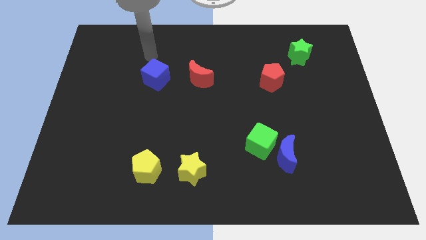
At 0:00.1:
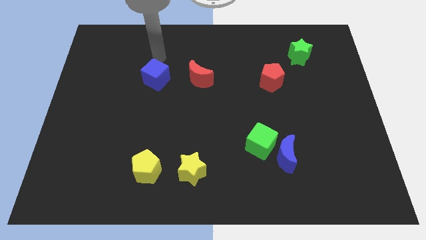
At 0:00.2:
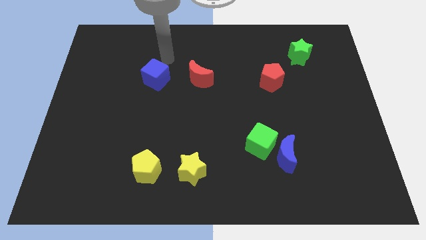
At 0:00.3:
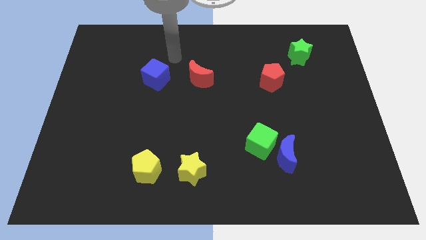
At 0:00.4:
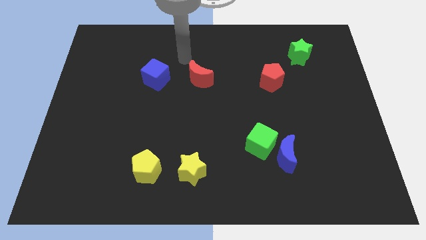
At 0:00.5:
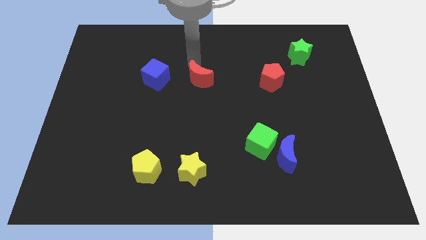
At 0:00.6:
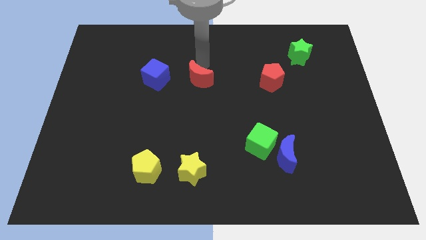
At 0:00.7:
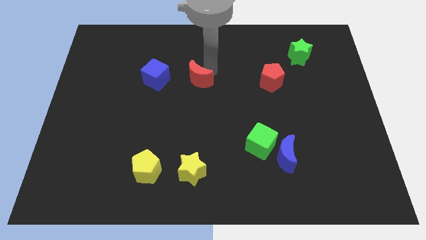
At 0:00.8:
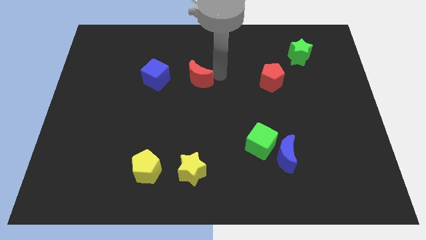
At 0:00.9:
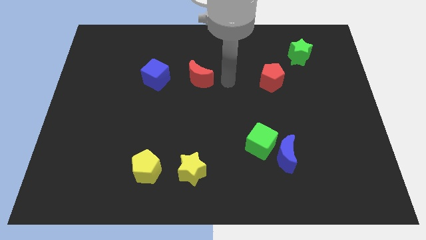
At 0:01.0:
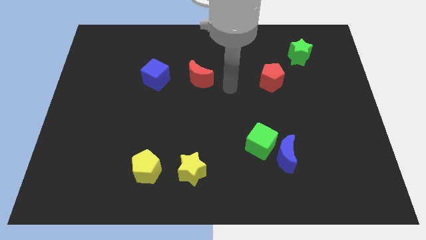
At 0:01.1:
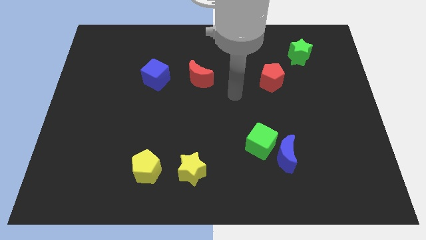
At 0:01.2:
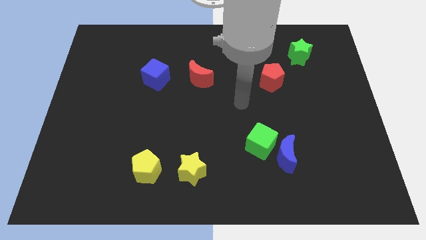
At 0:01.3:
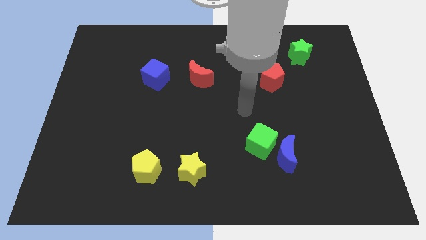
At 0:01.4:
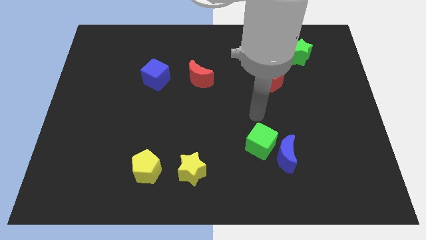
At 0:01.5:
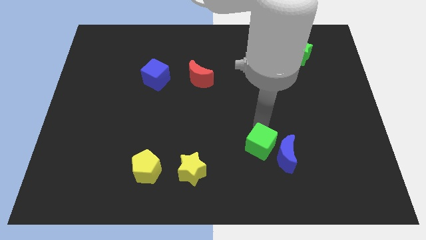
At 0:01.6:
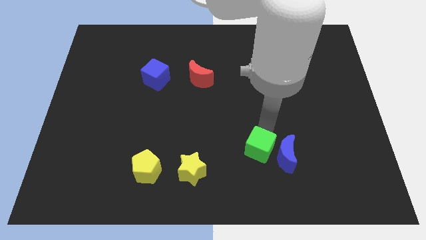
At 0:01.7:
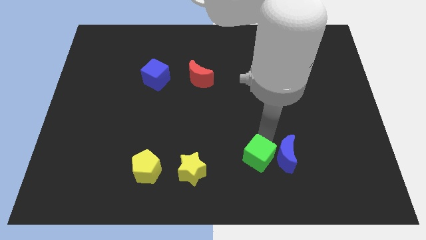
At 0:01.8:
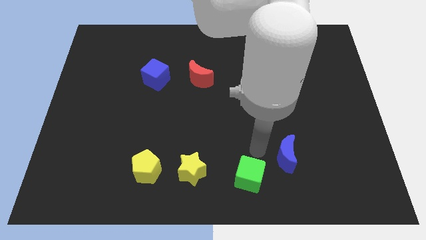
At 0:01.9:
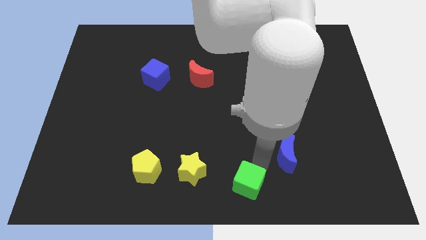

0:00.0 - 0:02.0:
move the blue moon away from the green cube

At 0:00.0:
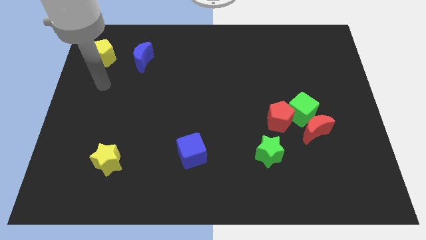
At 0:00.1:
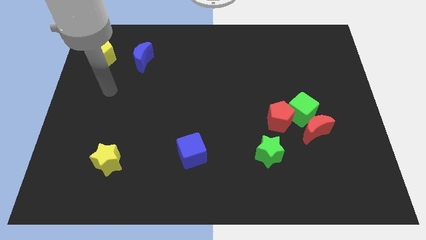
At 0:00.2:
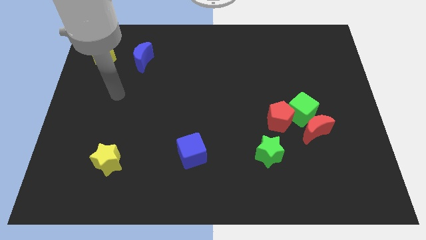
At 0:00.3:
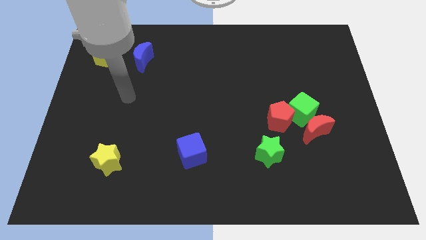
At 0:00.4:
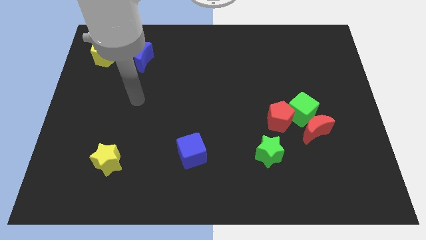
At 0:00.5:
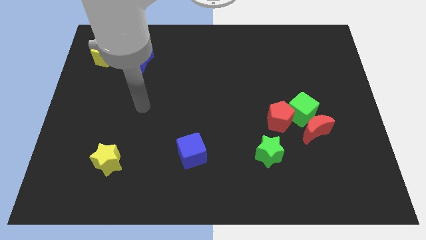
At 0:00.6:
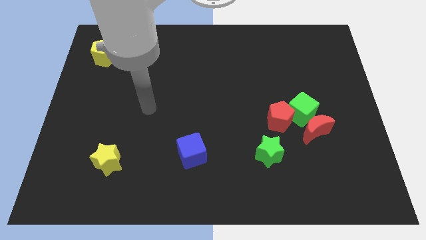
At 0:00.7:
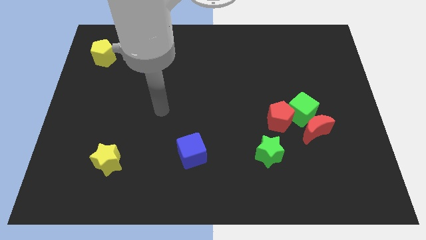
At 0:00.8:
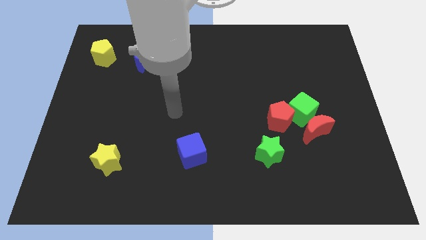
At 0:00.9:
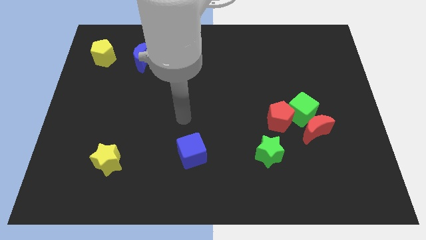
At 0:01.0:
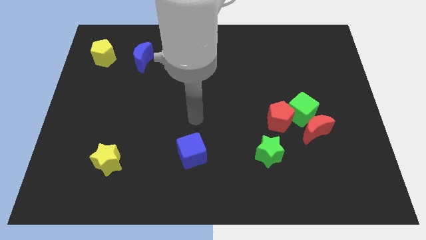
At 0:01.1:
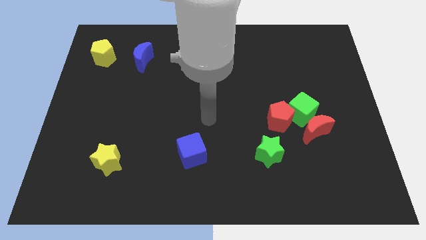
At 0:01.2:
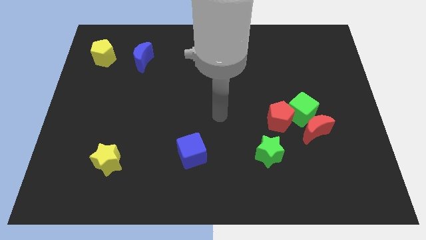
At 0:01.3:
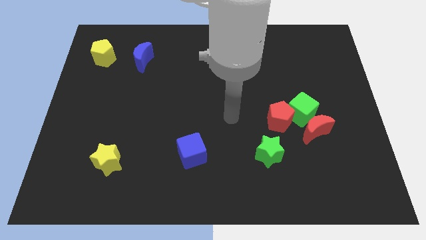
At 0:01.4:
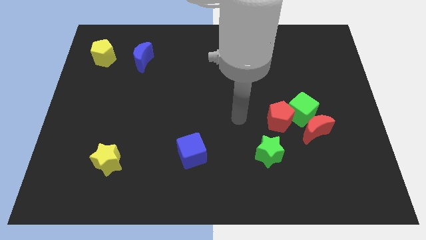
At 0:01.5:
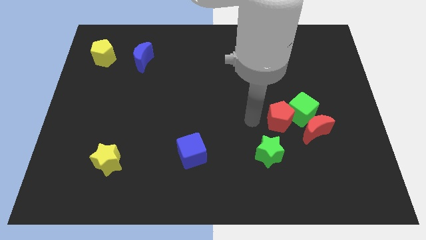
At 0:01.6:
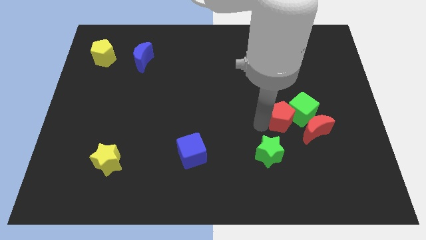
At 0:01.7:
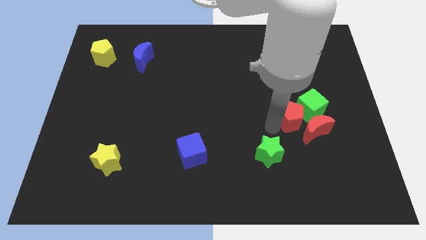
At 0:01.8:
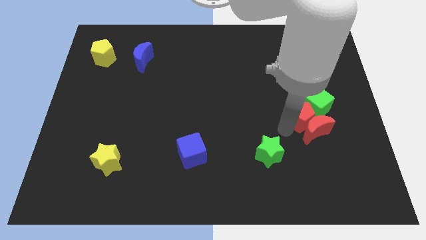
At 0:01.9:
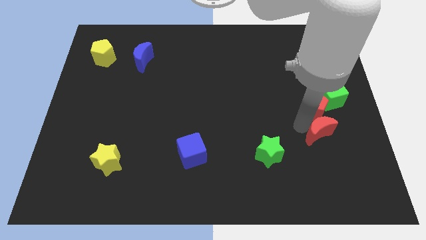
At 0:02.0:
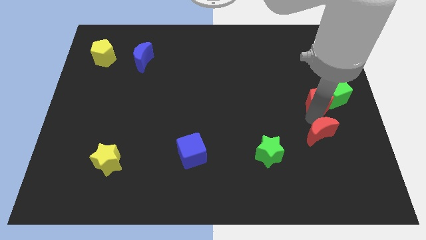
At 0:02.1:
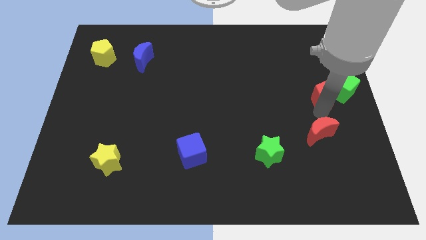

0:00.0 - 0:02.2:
separate the green cube from the red moon and red pentagon

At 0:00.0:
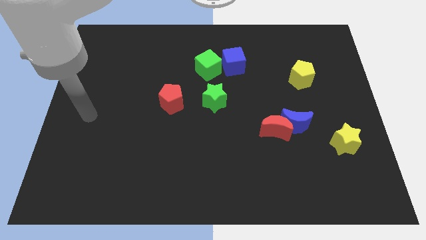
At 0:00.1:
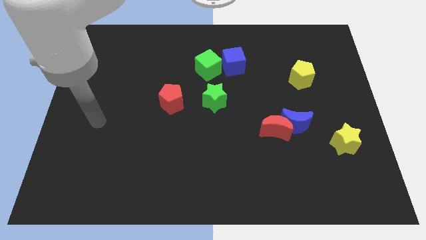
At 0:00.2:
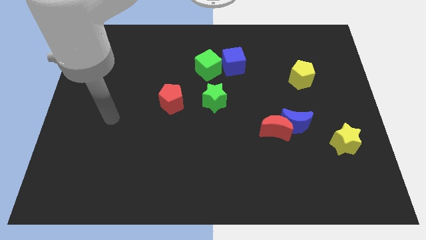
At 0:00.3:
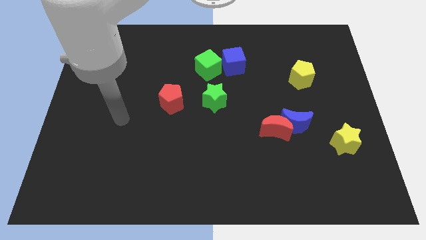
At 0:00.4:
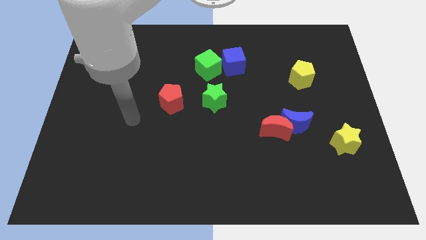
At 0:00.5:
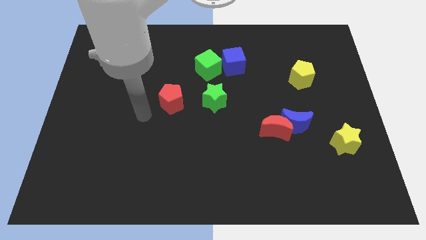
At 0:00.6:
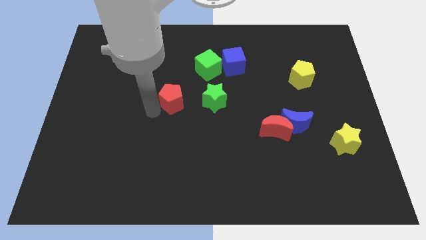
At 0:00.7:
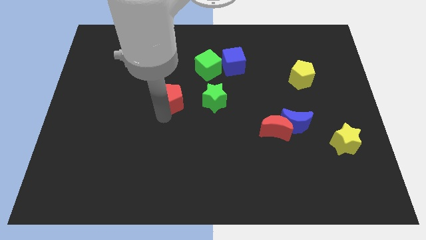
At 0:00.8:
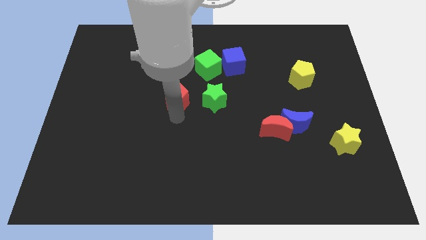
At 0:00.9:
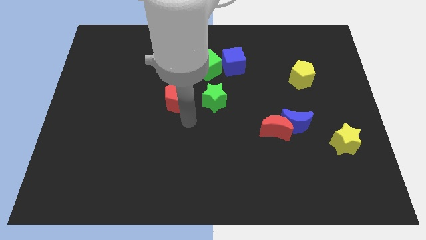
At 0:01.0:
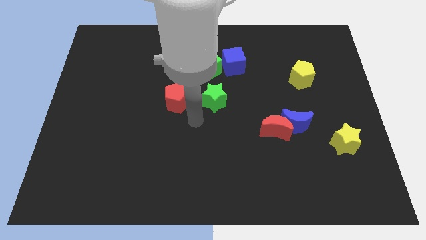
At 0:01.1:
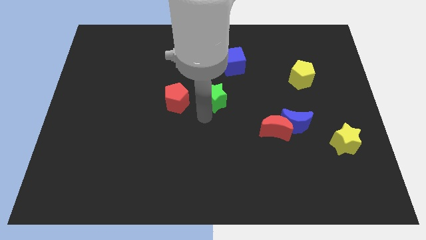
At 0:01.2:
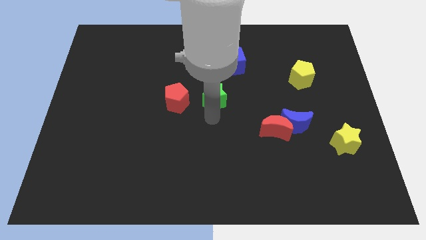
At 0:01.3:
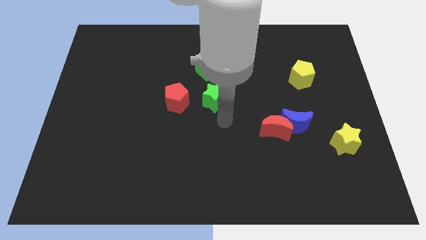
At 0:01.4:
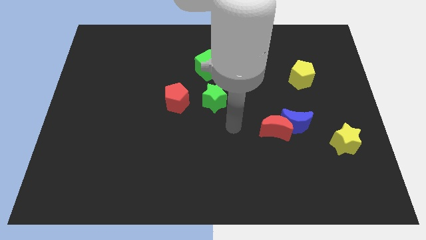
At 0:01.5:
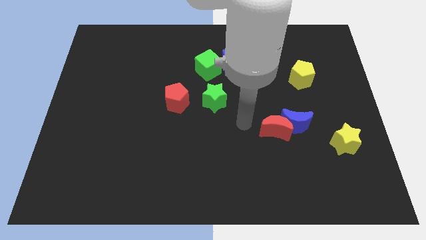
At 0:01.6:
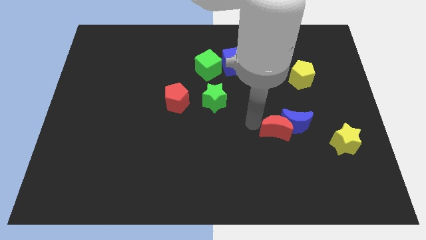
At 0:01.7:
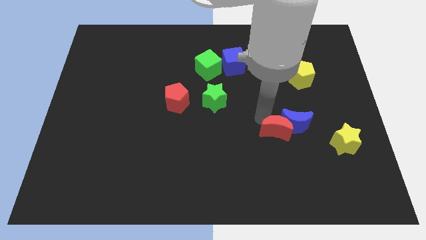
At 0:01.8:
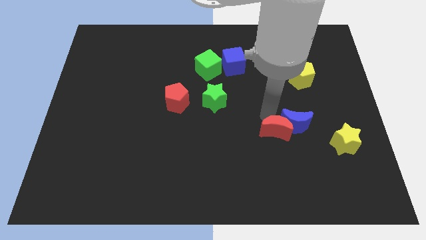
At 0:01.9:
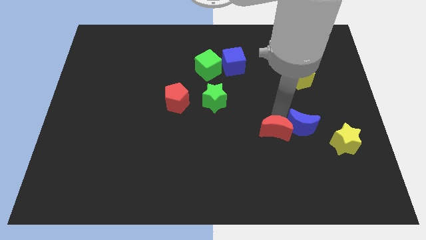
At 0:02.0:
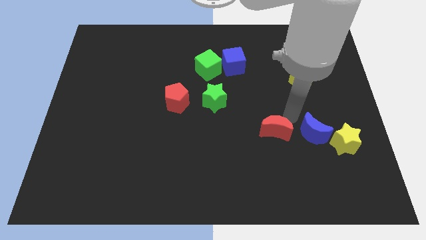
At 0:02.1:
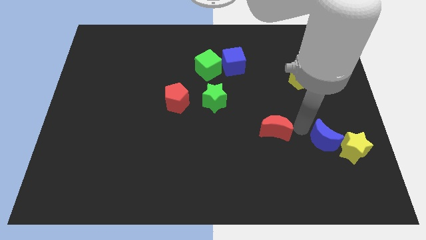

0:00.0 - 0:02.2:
separate the red moon from the blue moon

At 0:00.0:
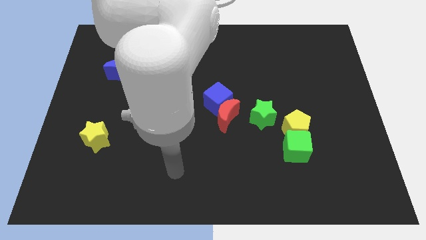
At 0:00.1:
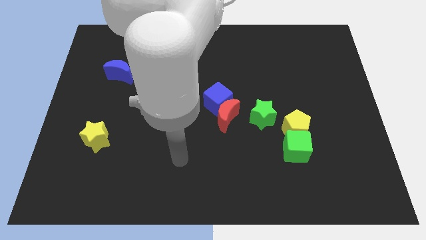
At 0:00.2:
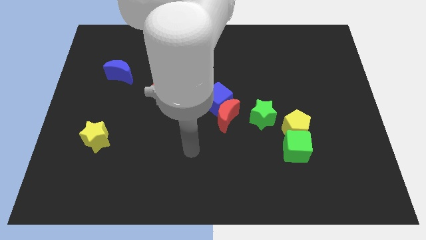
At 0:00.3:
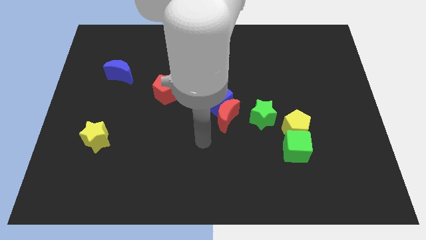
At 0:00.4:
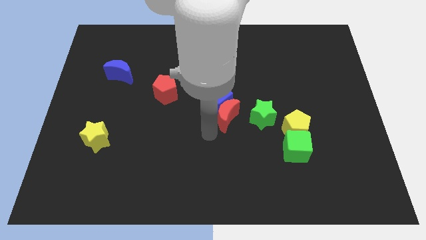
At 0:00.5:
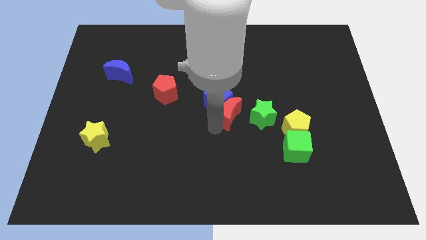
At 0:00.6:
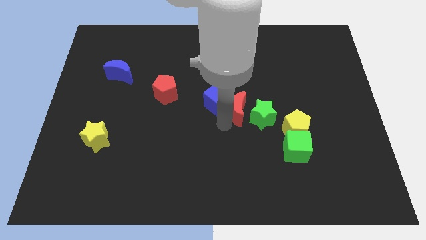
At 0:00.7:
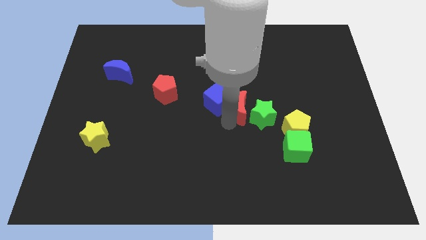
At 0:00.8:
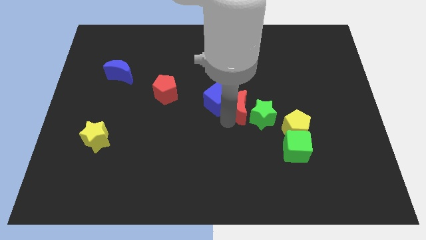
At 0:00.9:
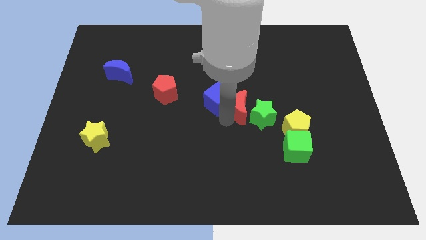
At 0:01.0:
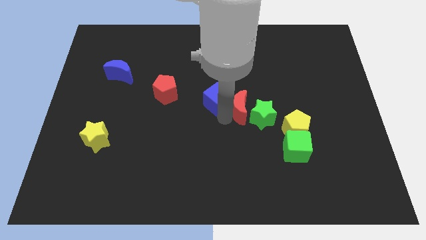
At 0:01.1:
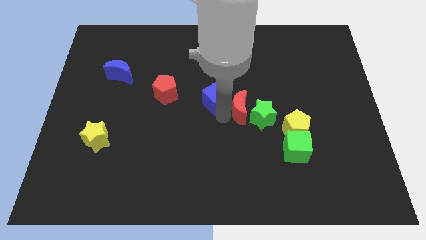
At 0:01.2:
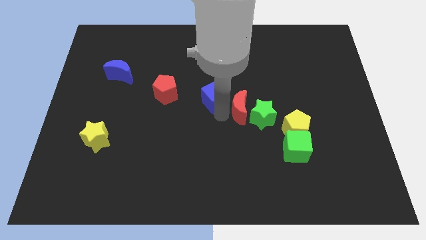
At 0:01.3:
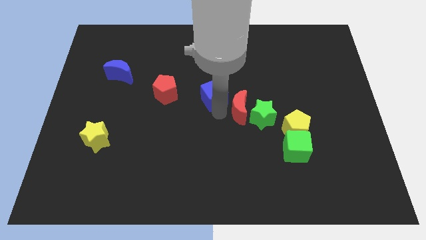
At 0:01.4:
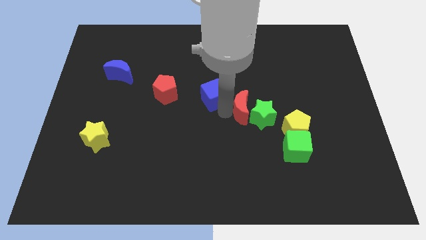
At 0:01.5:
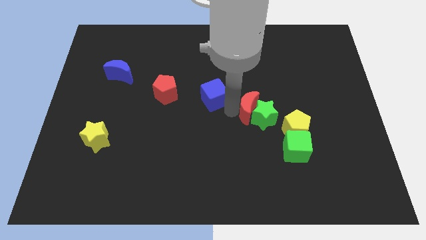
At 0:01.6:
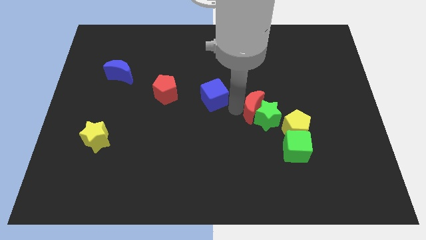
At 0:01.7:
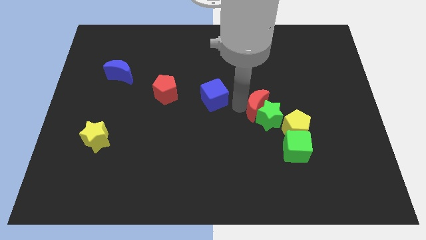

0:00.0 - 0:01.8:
separate the blue cube from the red moon

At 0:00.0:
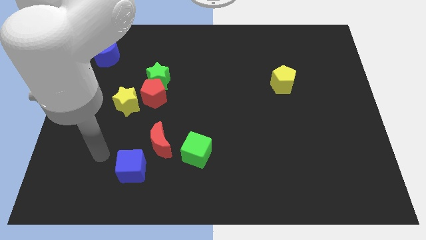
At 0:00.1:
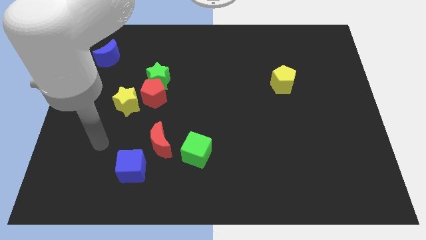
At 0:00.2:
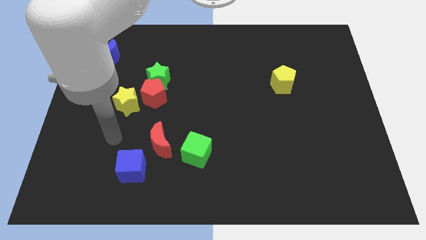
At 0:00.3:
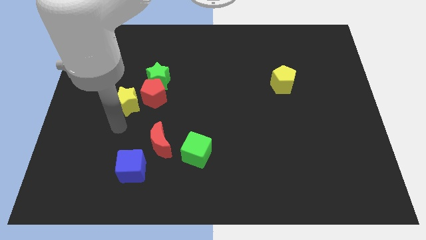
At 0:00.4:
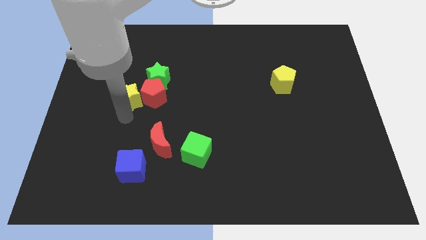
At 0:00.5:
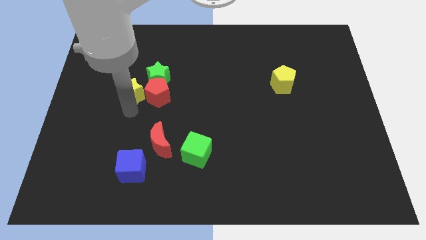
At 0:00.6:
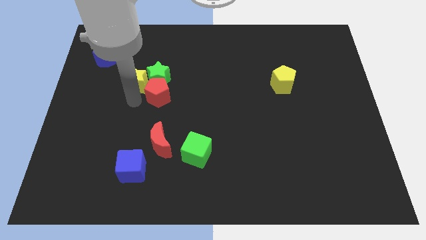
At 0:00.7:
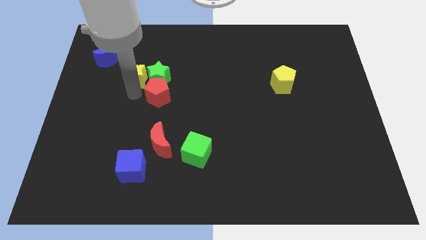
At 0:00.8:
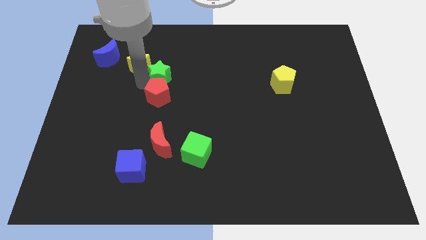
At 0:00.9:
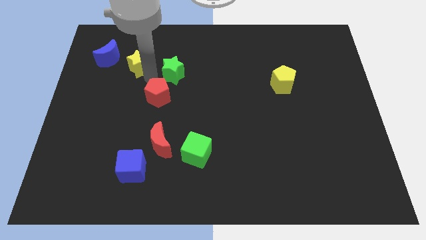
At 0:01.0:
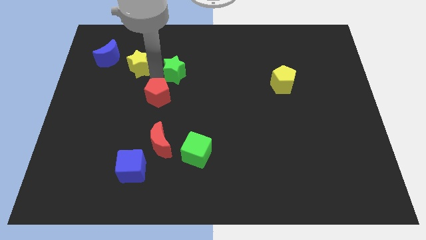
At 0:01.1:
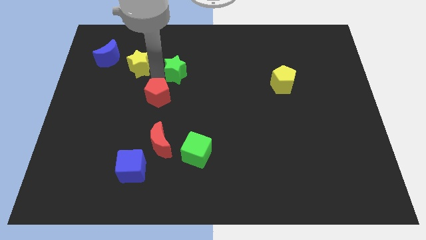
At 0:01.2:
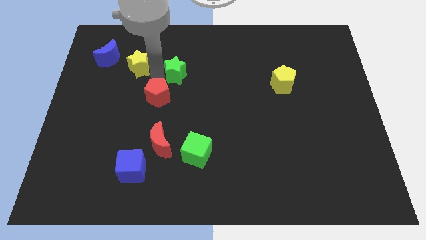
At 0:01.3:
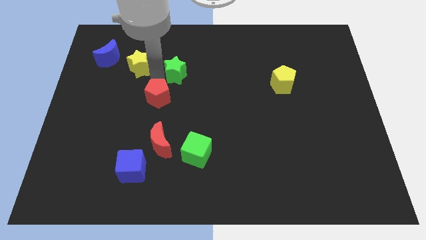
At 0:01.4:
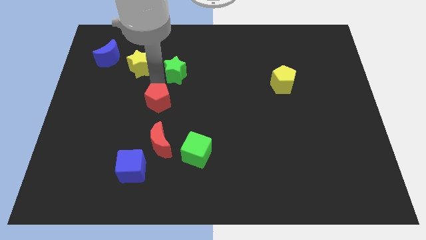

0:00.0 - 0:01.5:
separate the red pentagon from the green star and yellow star
